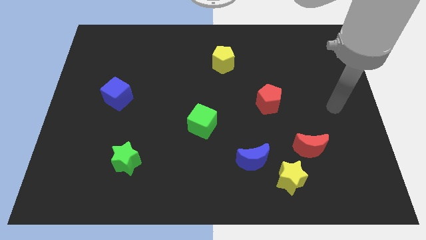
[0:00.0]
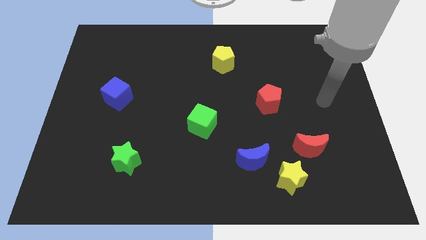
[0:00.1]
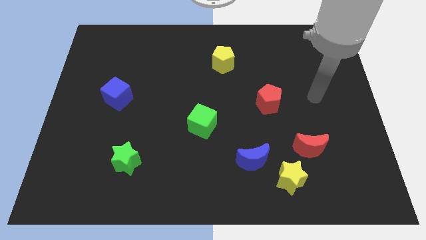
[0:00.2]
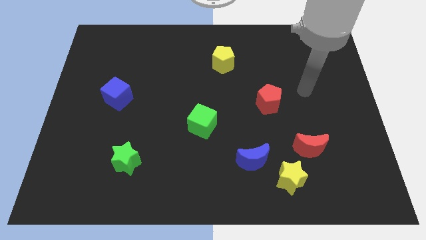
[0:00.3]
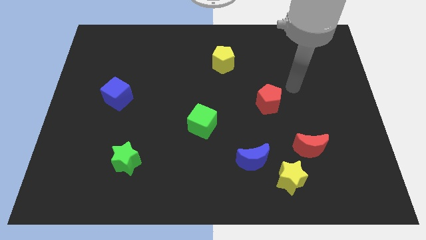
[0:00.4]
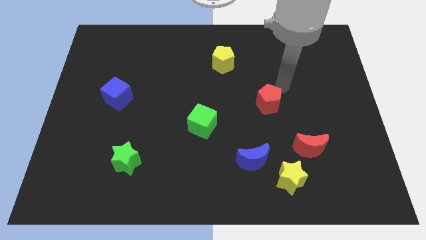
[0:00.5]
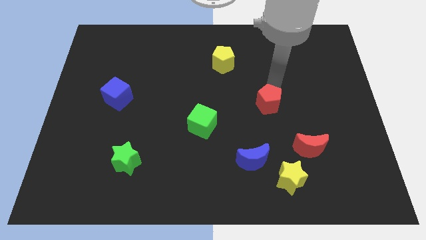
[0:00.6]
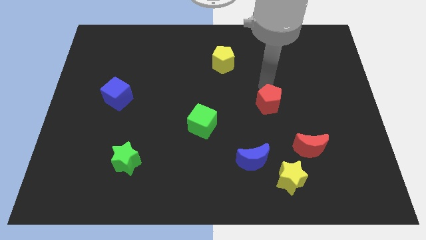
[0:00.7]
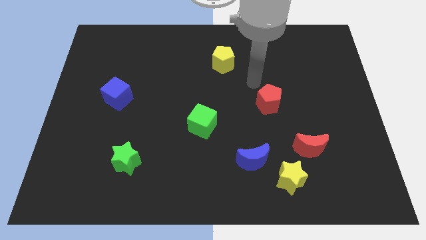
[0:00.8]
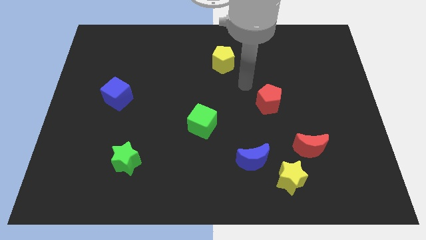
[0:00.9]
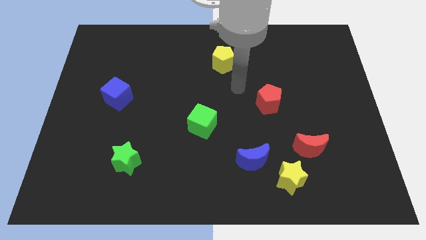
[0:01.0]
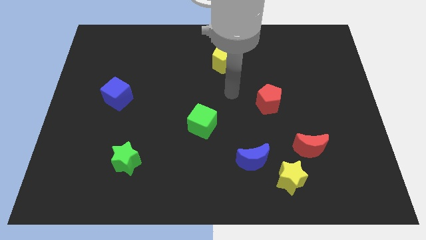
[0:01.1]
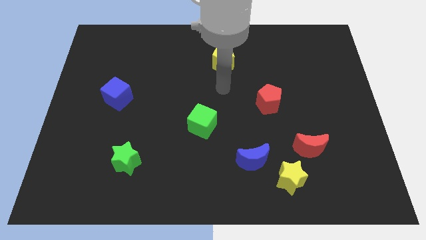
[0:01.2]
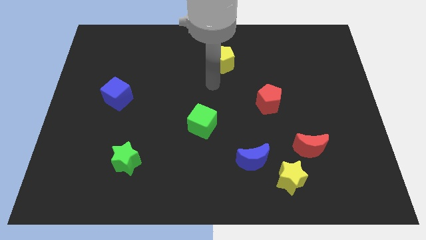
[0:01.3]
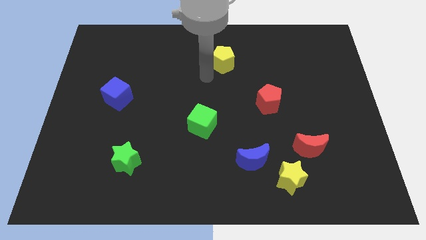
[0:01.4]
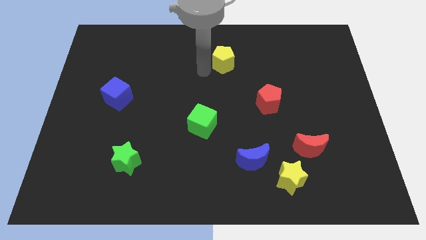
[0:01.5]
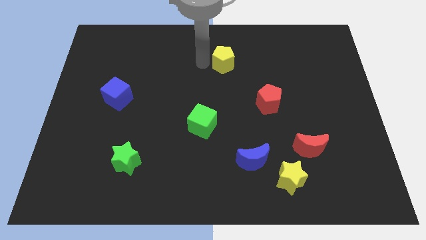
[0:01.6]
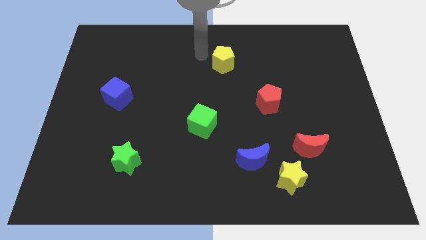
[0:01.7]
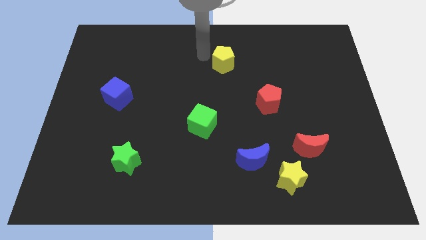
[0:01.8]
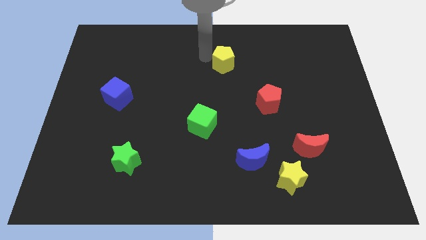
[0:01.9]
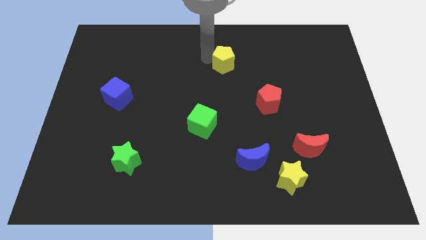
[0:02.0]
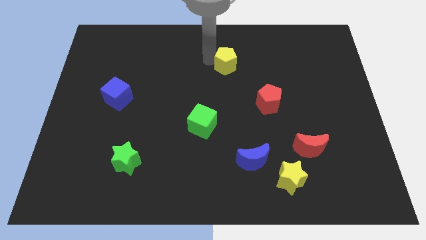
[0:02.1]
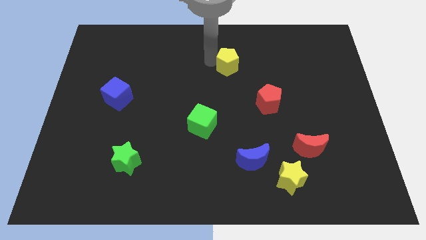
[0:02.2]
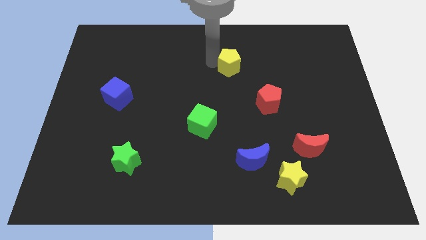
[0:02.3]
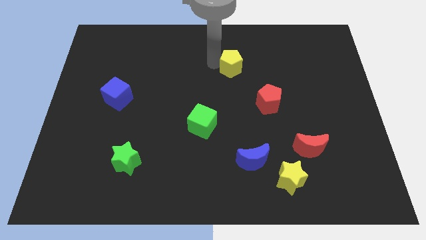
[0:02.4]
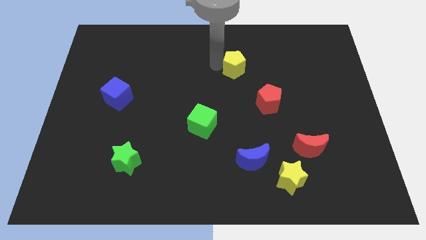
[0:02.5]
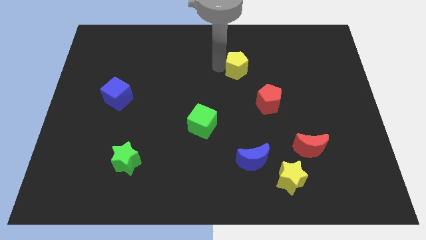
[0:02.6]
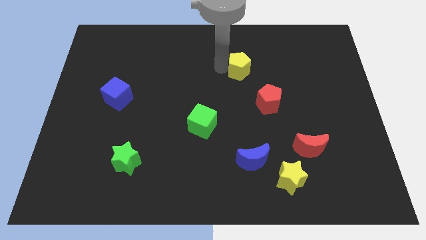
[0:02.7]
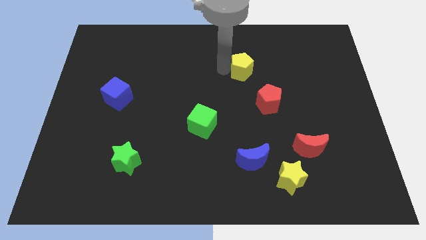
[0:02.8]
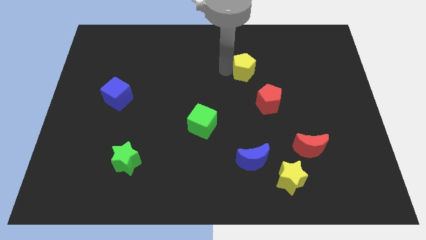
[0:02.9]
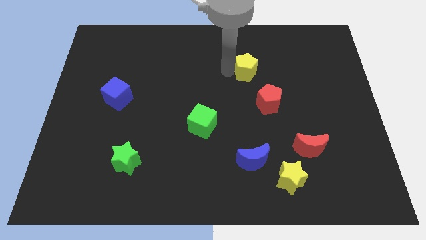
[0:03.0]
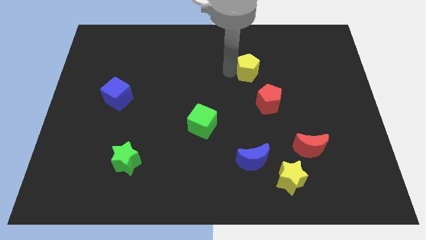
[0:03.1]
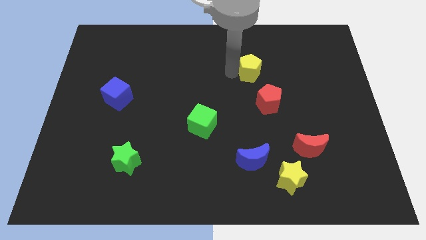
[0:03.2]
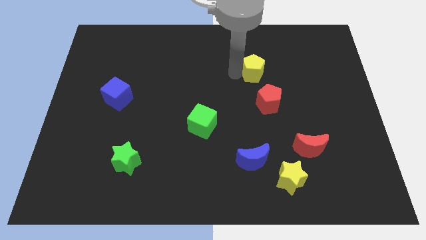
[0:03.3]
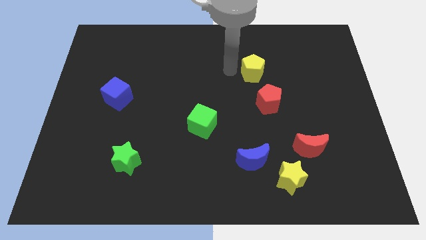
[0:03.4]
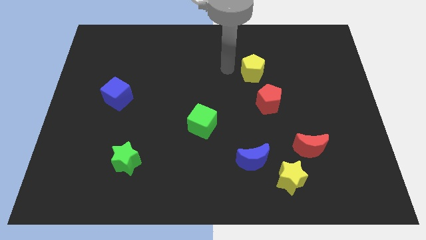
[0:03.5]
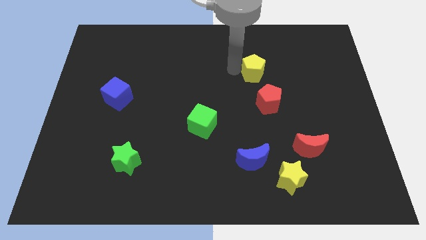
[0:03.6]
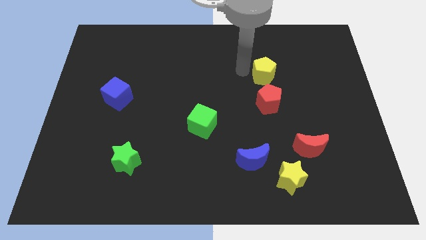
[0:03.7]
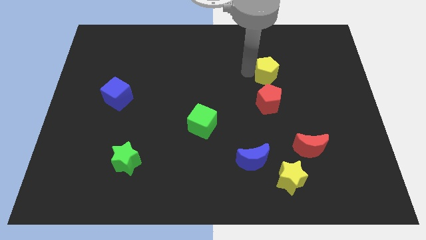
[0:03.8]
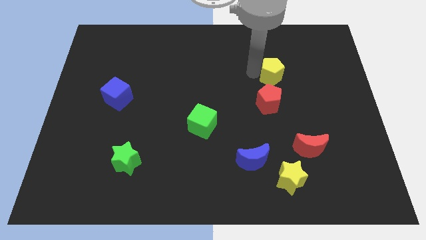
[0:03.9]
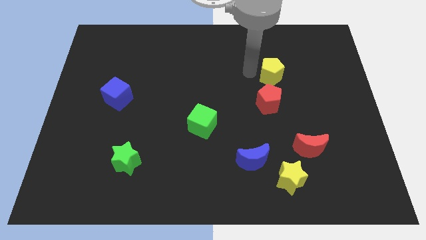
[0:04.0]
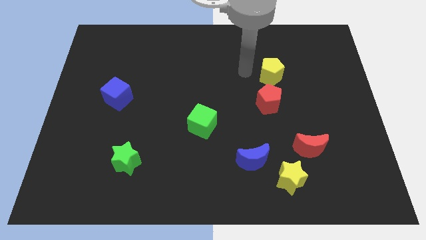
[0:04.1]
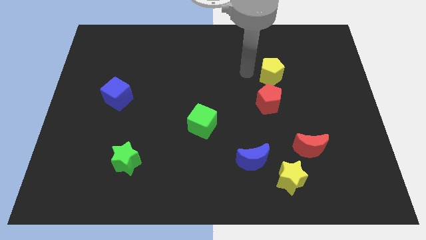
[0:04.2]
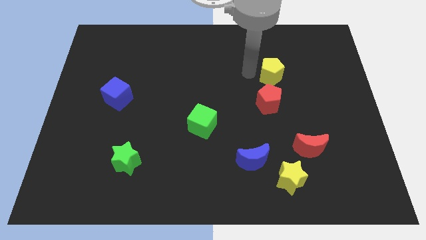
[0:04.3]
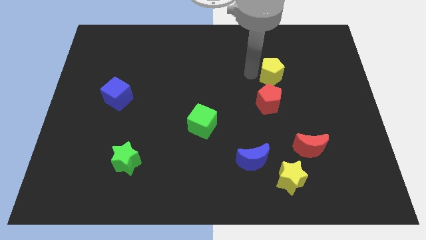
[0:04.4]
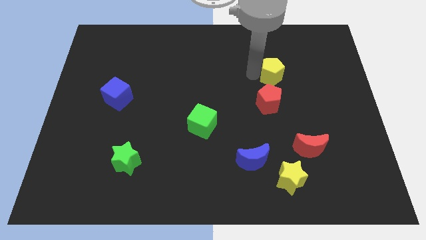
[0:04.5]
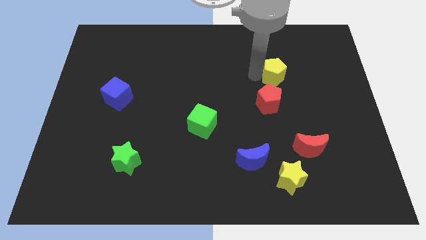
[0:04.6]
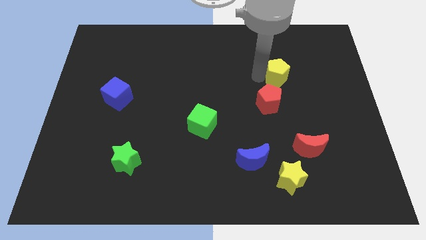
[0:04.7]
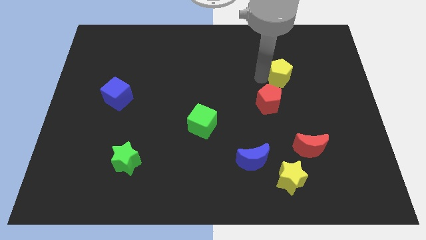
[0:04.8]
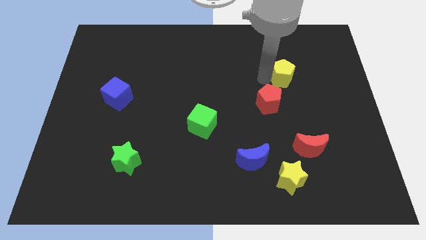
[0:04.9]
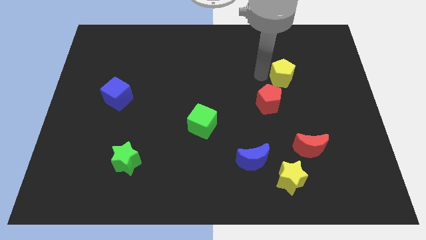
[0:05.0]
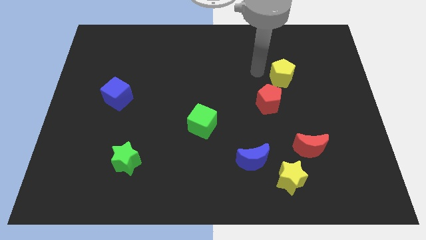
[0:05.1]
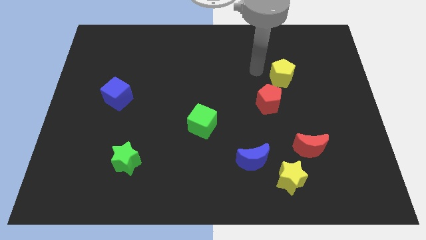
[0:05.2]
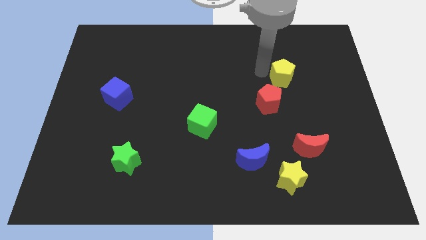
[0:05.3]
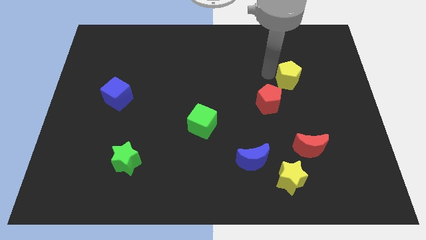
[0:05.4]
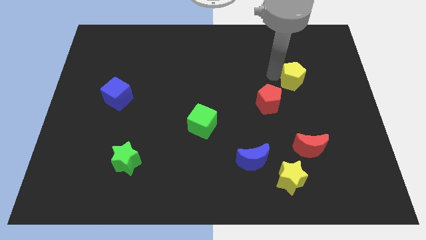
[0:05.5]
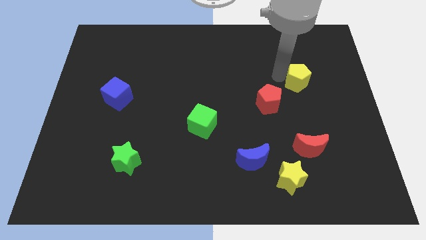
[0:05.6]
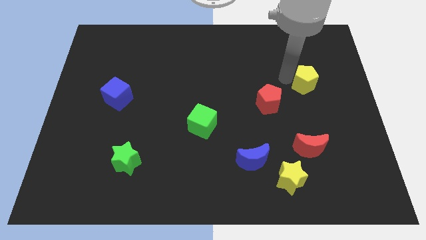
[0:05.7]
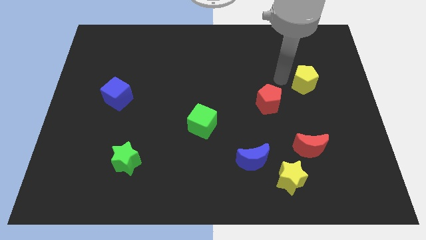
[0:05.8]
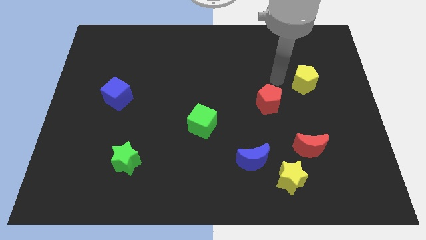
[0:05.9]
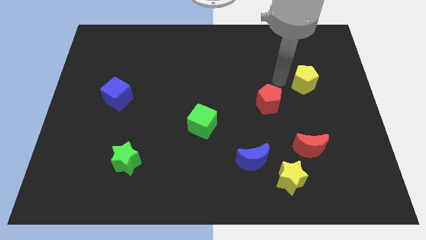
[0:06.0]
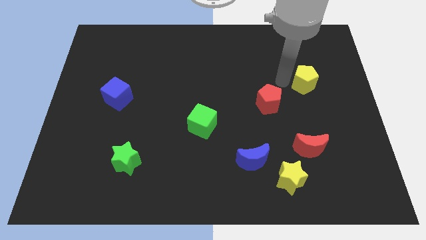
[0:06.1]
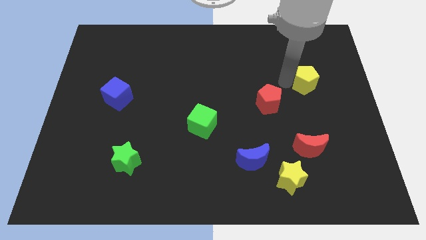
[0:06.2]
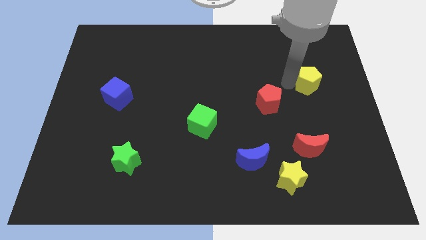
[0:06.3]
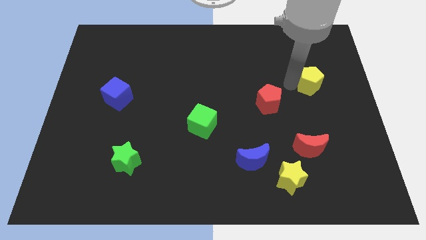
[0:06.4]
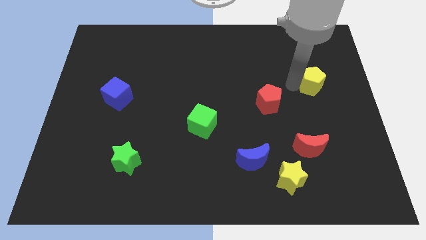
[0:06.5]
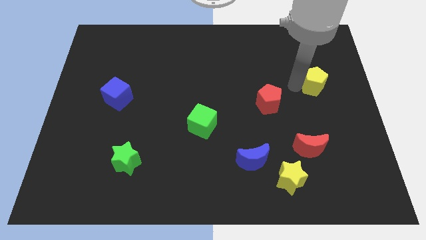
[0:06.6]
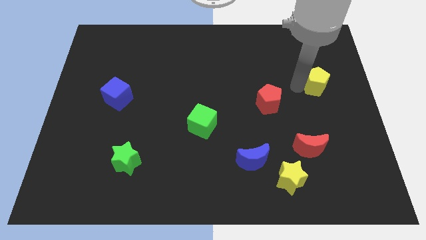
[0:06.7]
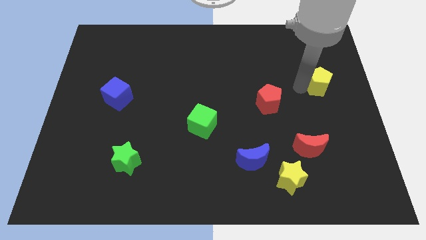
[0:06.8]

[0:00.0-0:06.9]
slide the yellow pentagon to the right side
